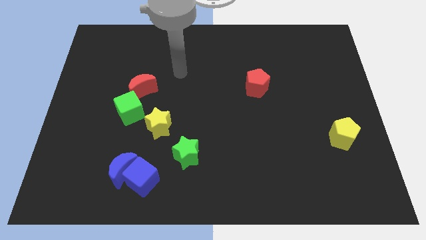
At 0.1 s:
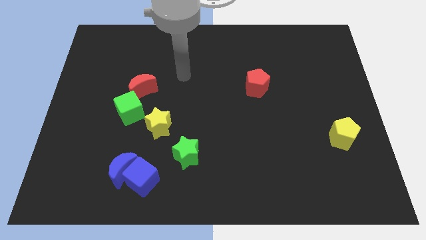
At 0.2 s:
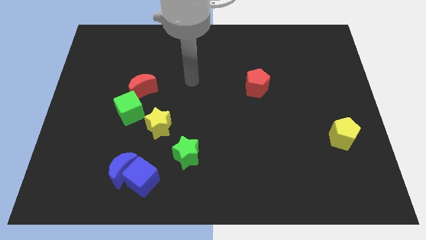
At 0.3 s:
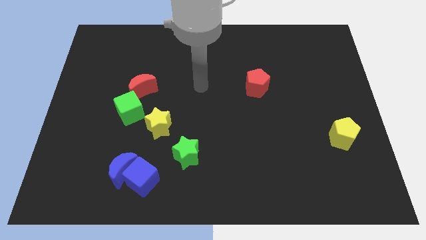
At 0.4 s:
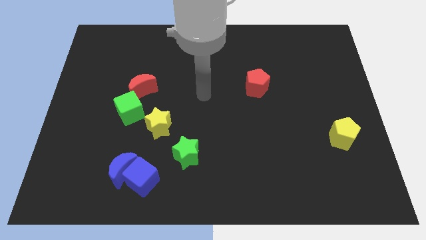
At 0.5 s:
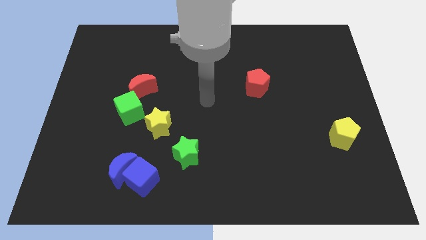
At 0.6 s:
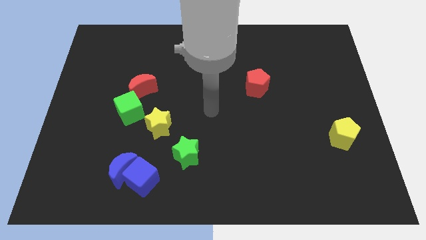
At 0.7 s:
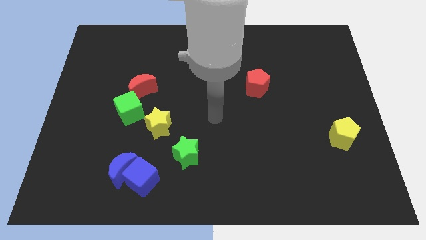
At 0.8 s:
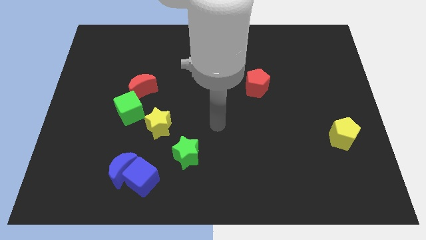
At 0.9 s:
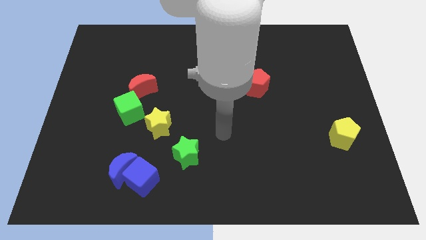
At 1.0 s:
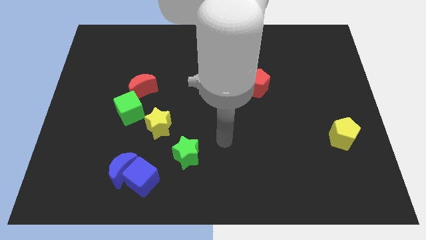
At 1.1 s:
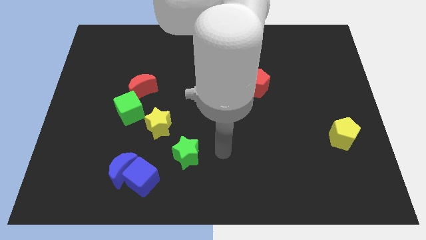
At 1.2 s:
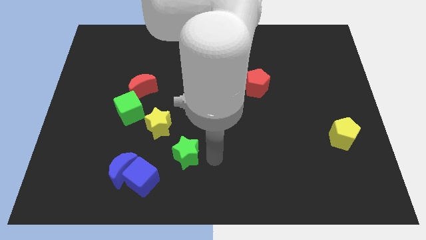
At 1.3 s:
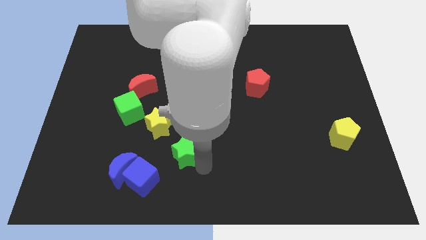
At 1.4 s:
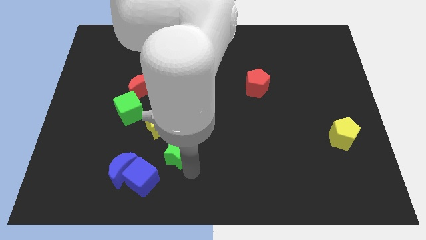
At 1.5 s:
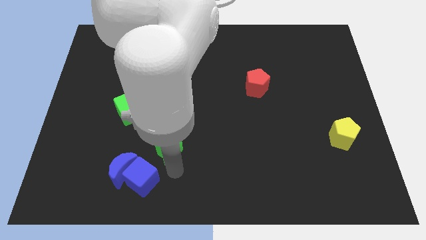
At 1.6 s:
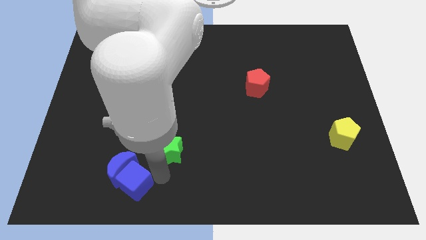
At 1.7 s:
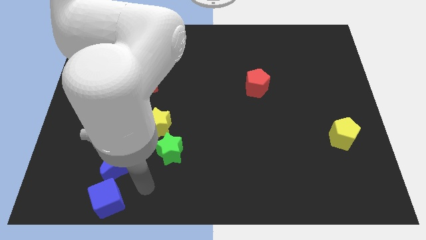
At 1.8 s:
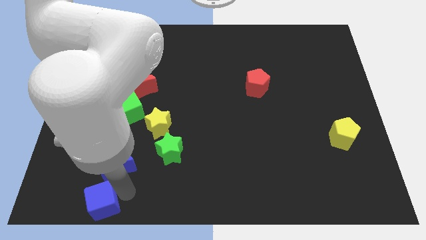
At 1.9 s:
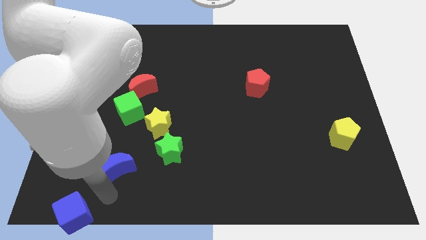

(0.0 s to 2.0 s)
move the blue moon away from the blue cube

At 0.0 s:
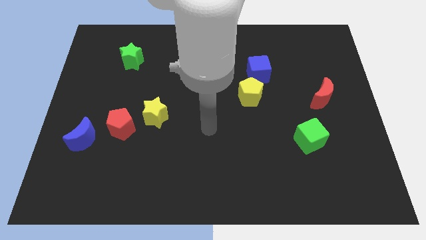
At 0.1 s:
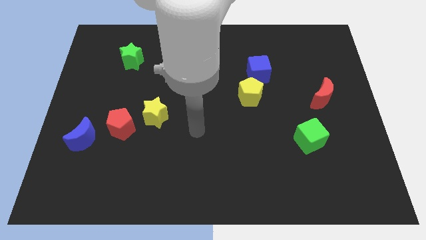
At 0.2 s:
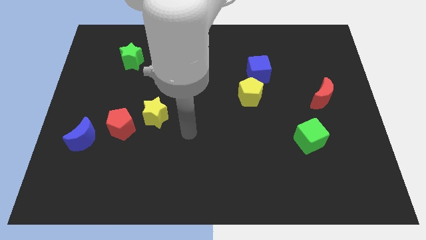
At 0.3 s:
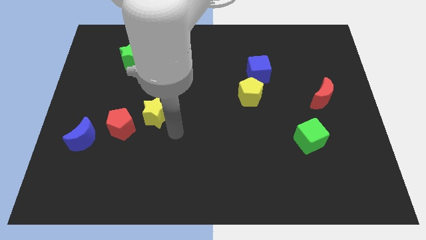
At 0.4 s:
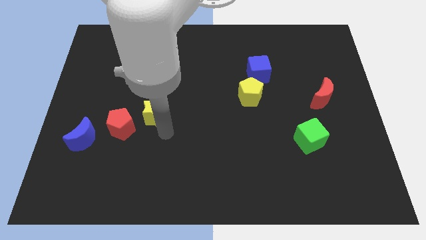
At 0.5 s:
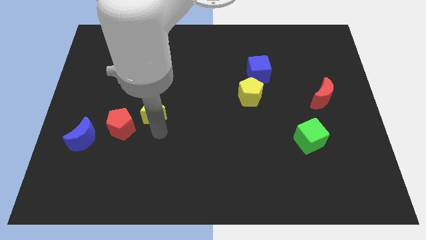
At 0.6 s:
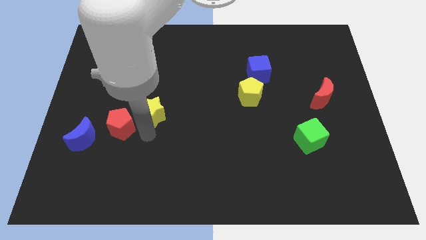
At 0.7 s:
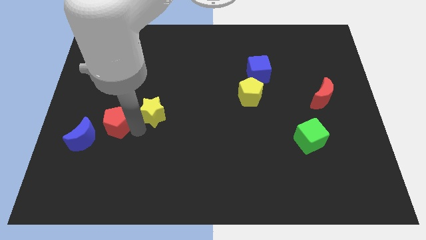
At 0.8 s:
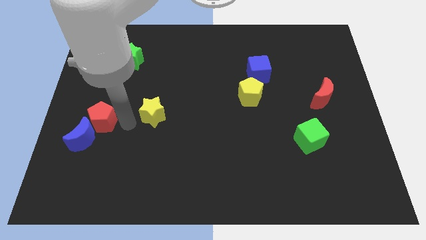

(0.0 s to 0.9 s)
move the yellow star away from the red pentagon

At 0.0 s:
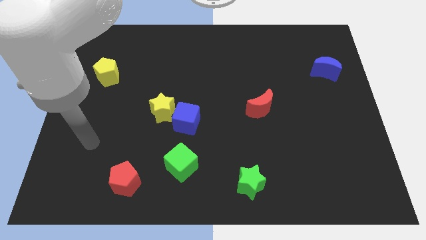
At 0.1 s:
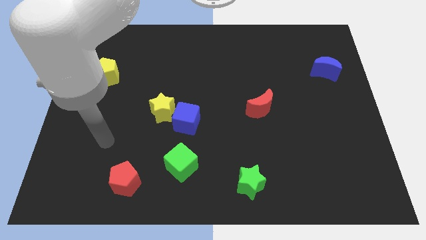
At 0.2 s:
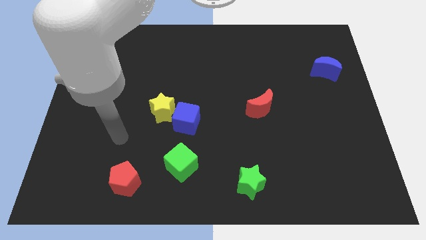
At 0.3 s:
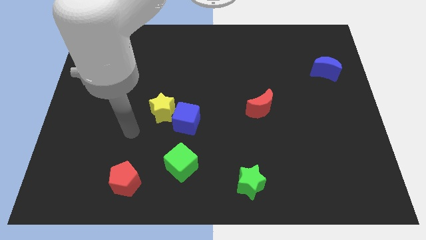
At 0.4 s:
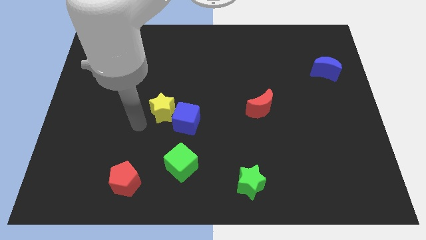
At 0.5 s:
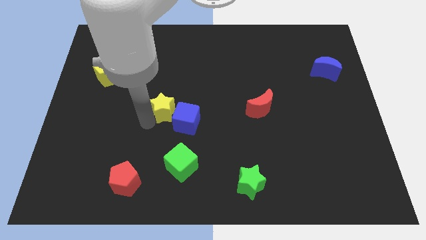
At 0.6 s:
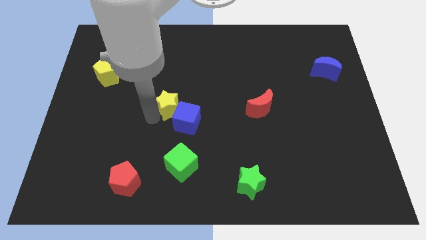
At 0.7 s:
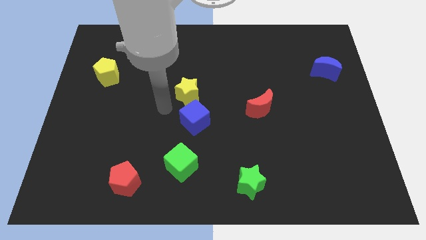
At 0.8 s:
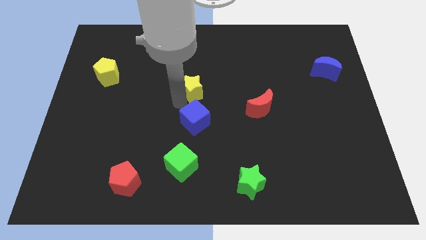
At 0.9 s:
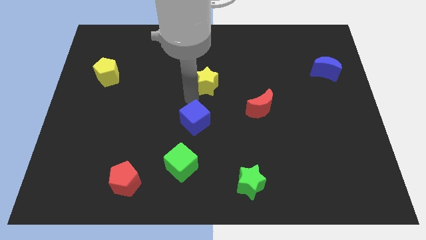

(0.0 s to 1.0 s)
pull the blue cube apart from the yellow star

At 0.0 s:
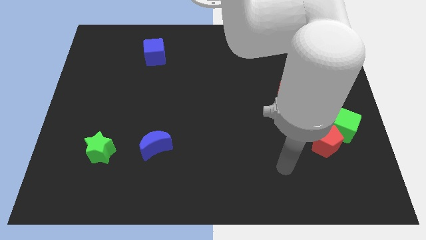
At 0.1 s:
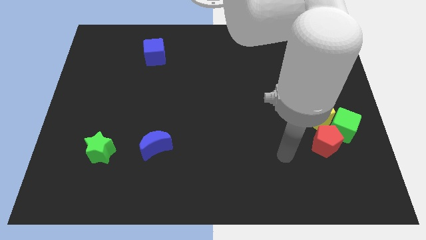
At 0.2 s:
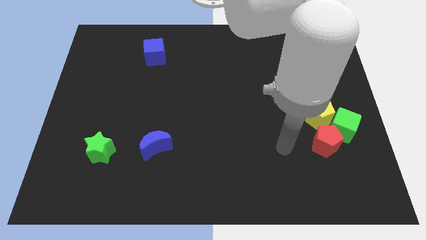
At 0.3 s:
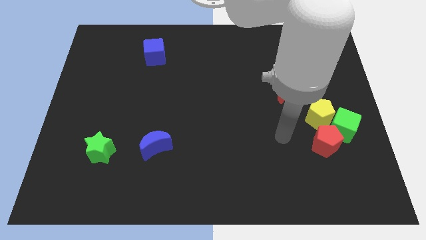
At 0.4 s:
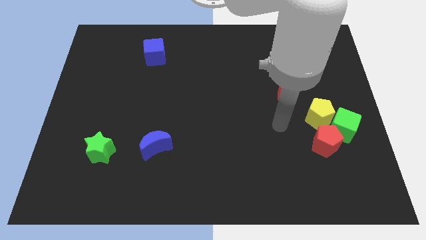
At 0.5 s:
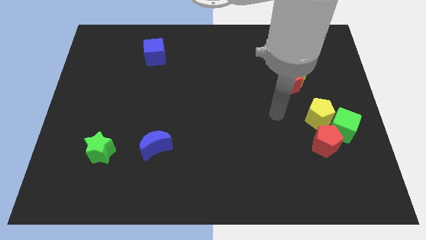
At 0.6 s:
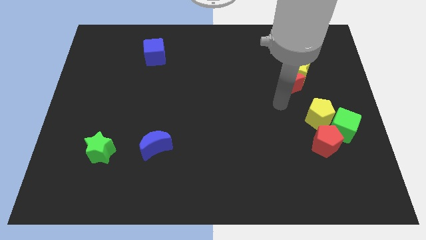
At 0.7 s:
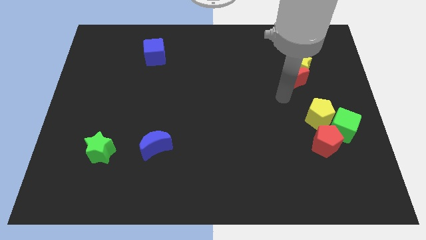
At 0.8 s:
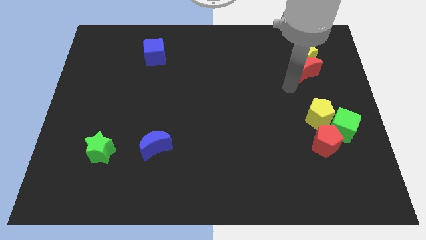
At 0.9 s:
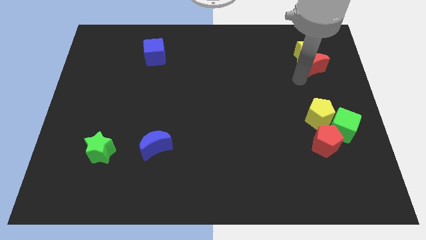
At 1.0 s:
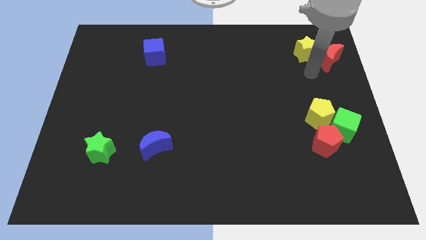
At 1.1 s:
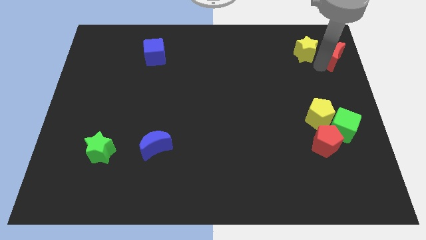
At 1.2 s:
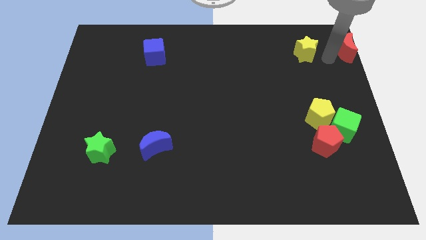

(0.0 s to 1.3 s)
move the yellow star away from the red moon

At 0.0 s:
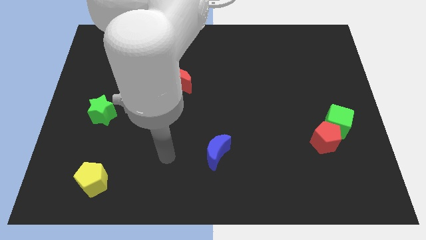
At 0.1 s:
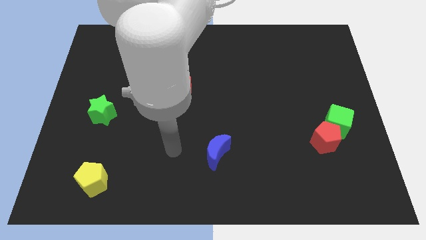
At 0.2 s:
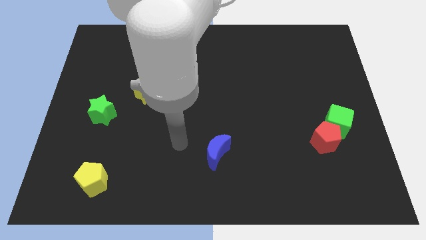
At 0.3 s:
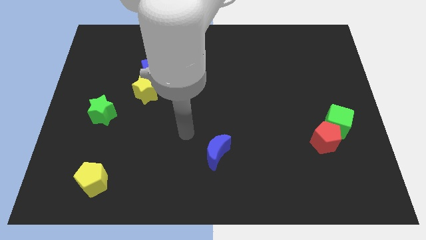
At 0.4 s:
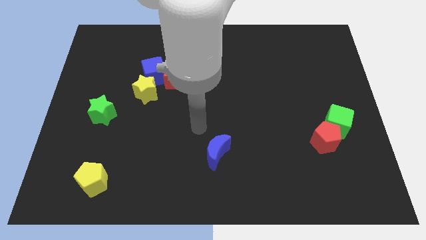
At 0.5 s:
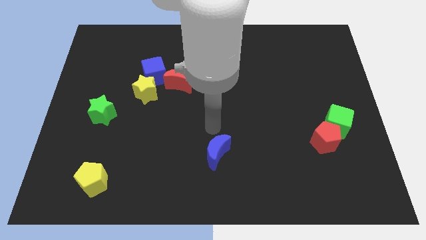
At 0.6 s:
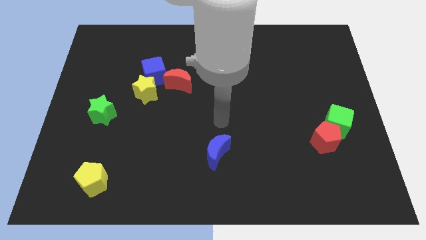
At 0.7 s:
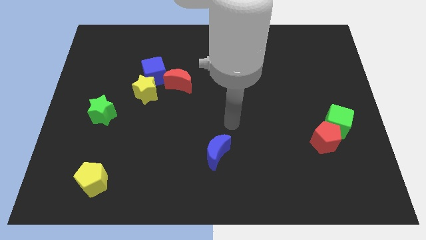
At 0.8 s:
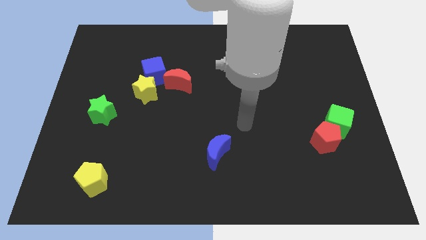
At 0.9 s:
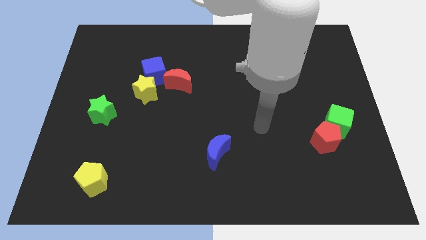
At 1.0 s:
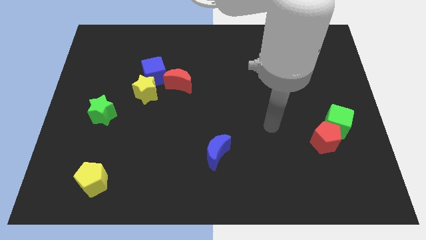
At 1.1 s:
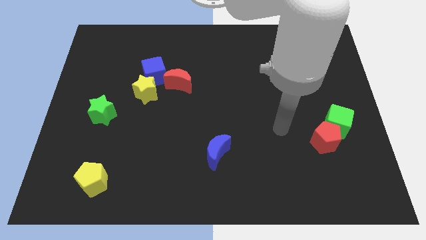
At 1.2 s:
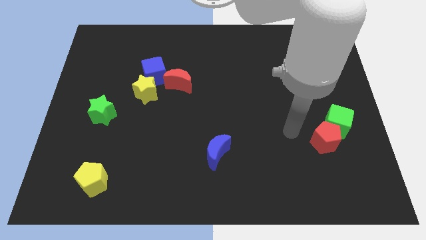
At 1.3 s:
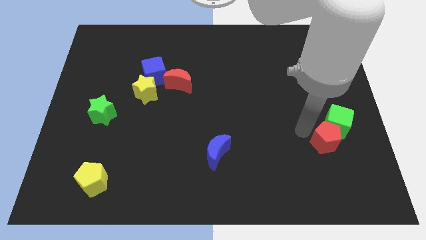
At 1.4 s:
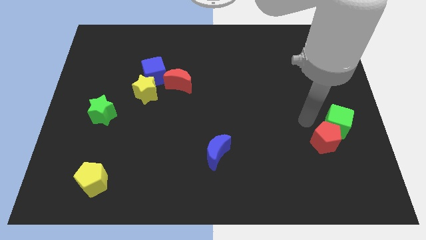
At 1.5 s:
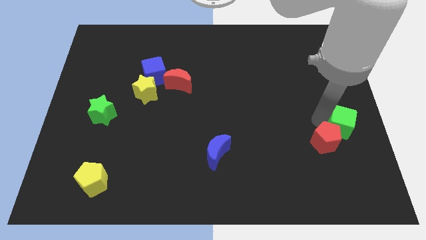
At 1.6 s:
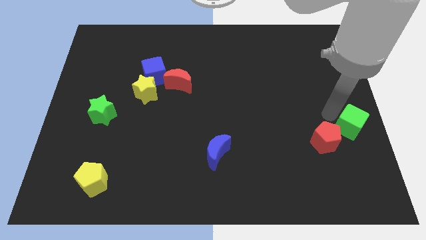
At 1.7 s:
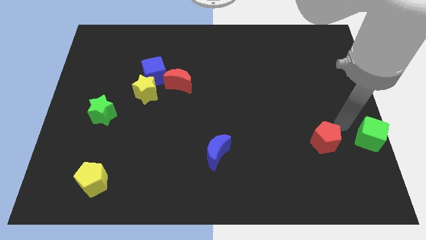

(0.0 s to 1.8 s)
move the red pentagon away from the green cube

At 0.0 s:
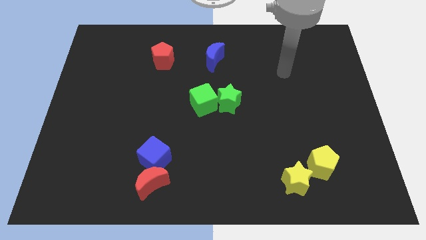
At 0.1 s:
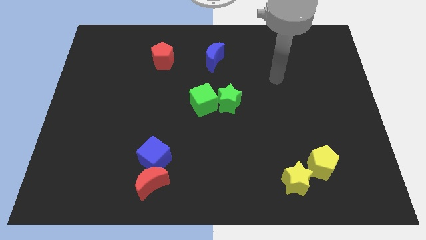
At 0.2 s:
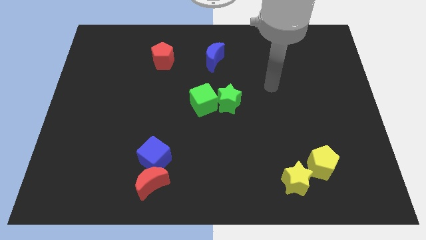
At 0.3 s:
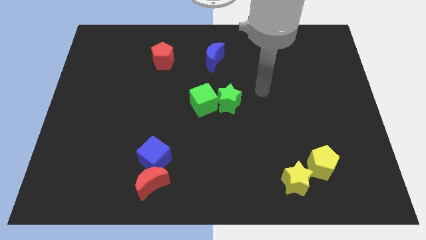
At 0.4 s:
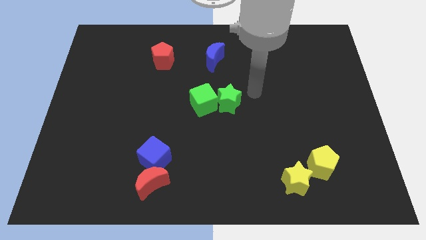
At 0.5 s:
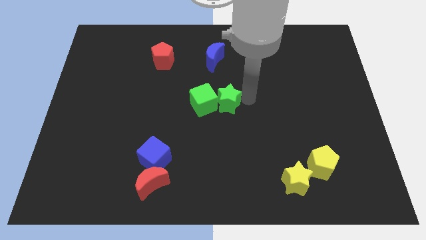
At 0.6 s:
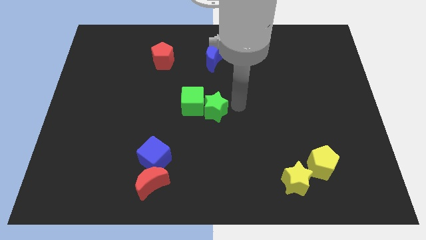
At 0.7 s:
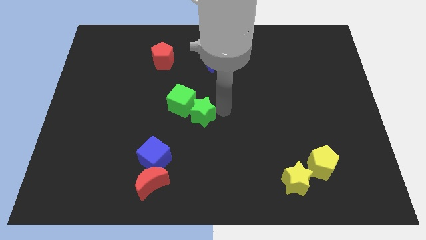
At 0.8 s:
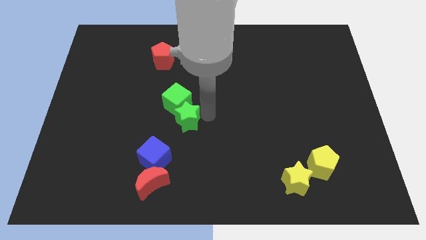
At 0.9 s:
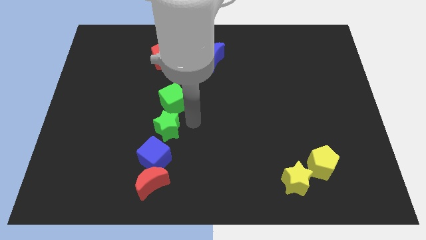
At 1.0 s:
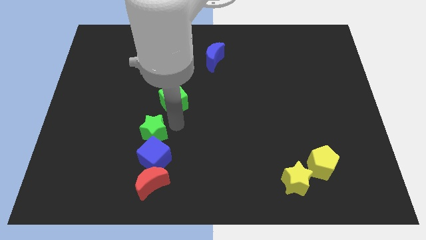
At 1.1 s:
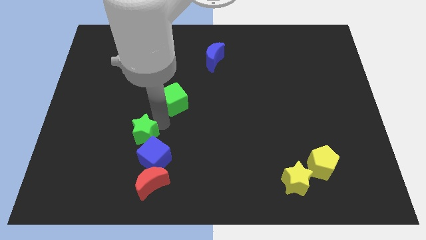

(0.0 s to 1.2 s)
move the green cube away from the green star

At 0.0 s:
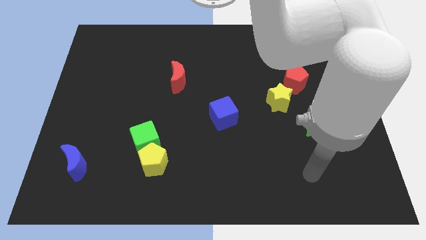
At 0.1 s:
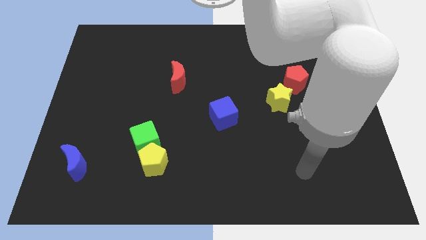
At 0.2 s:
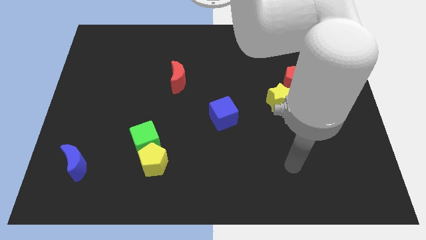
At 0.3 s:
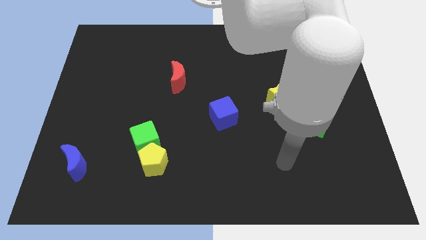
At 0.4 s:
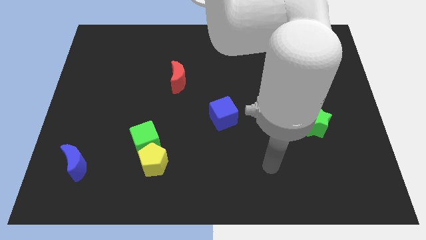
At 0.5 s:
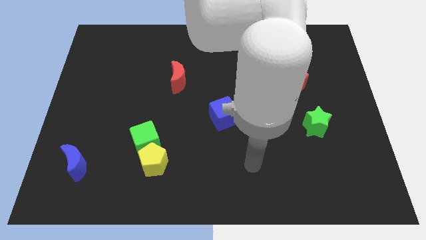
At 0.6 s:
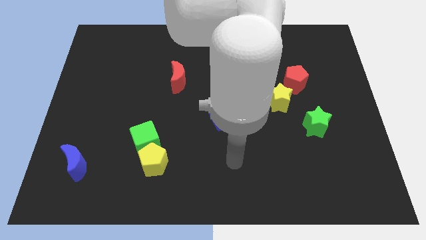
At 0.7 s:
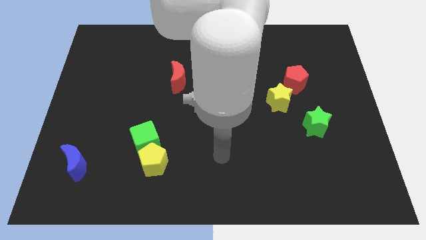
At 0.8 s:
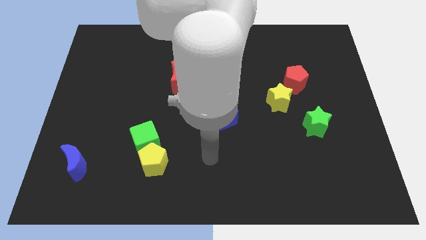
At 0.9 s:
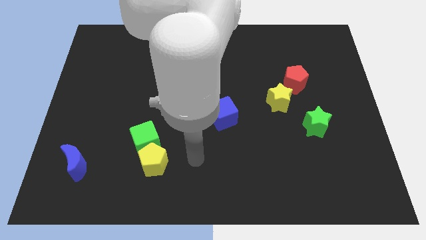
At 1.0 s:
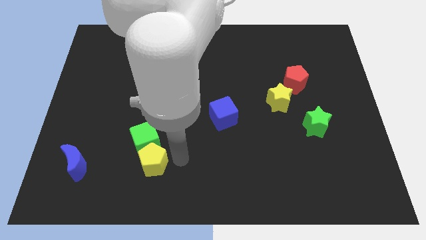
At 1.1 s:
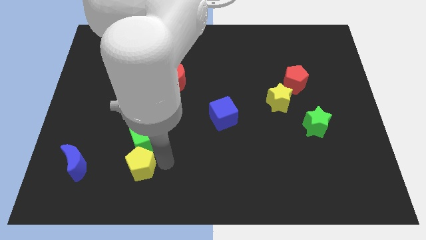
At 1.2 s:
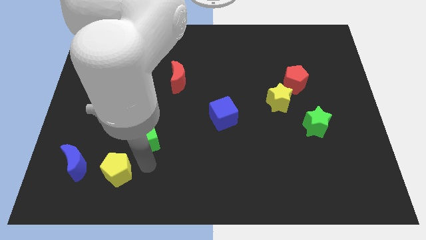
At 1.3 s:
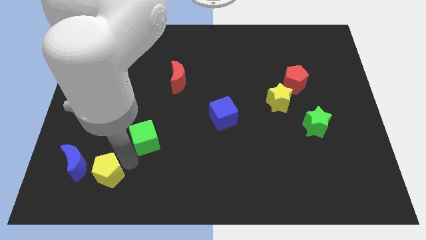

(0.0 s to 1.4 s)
separate the green cube from the yellow pentagon
